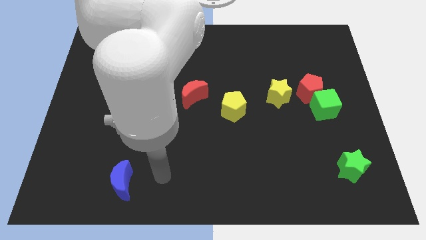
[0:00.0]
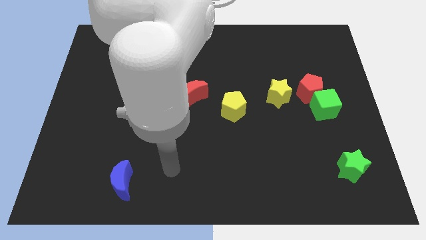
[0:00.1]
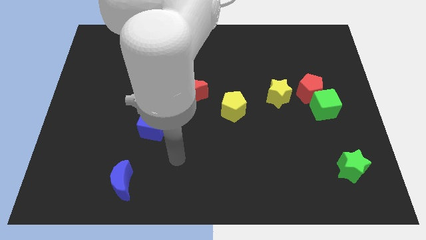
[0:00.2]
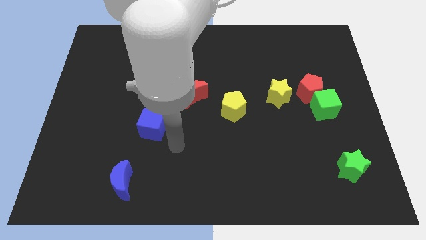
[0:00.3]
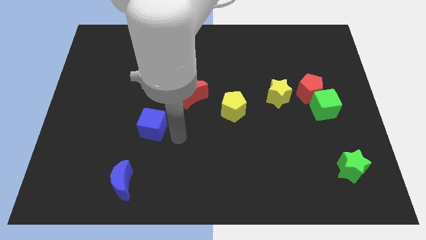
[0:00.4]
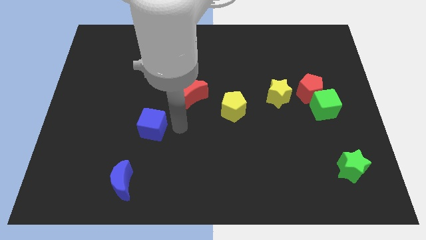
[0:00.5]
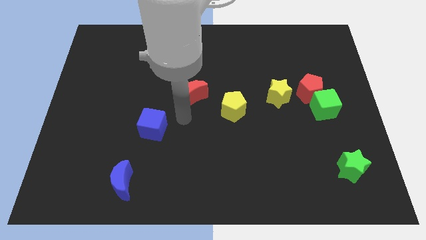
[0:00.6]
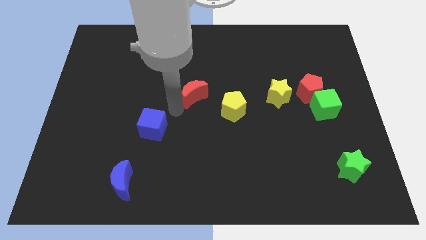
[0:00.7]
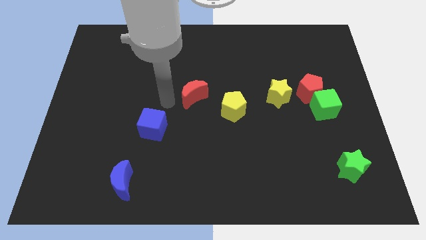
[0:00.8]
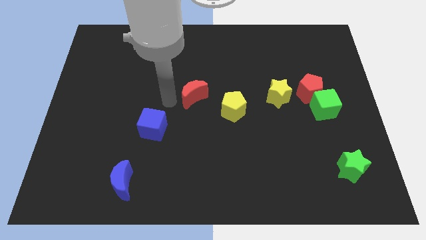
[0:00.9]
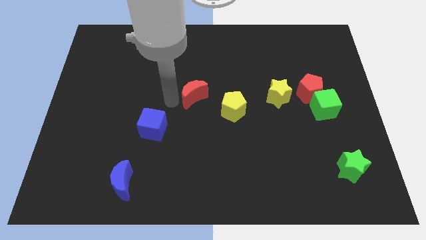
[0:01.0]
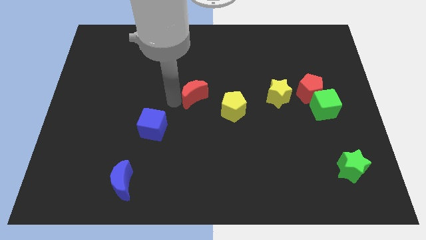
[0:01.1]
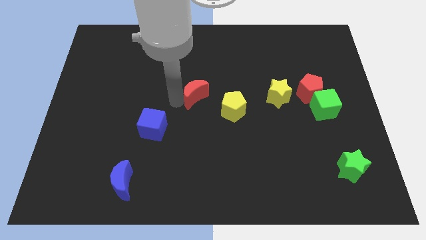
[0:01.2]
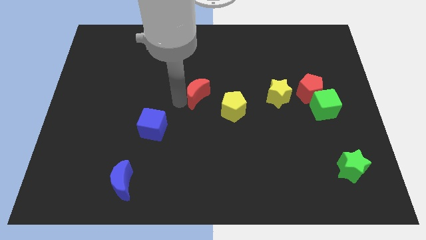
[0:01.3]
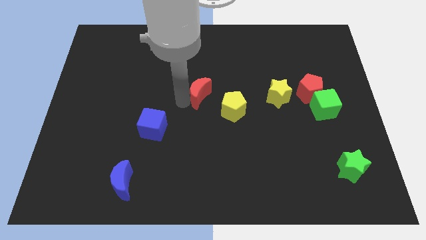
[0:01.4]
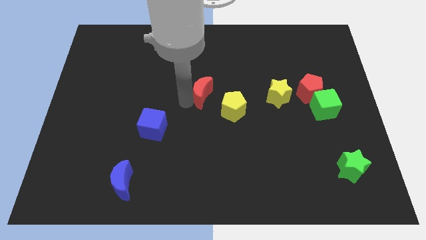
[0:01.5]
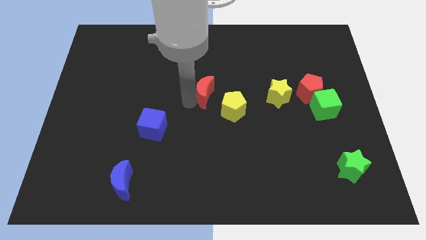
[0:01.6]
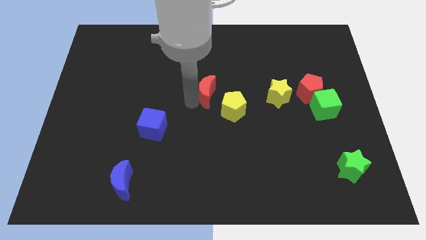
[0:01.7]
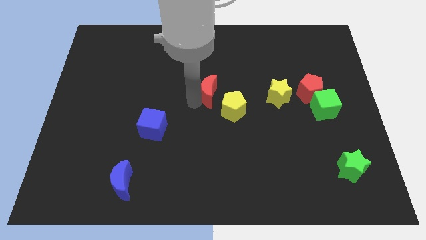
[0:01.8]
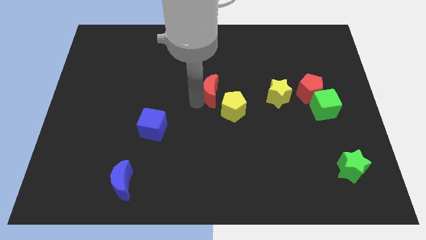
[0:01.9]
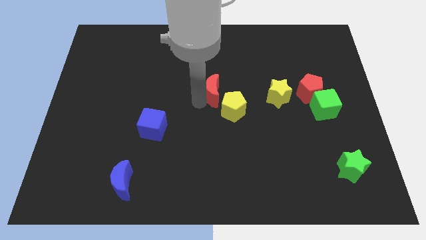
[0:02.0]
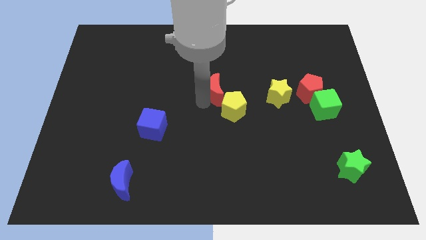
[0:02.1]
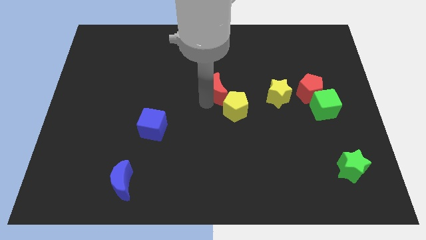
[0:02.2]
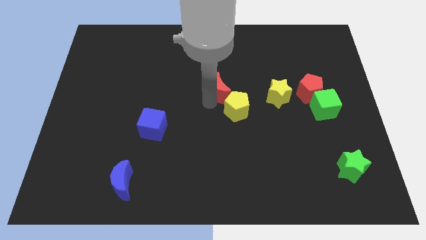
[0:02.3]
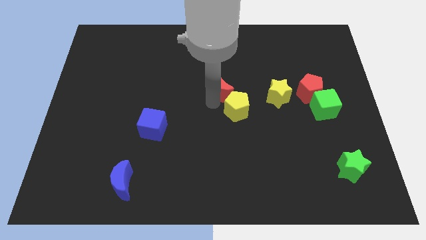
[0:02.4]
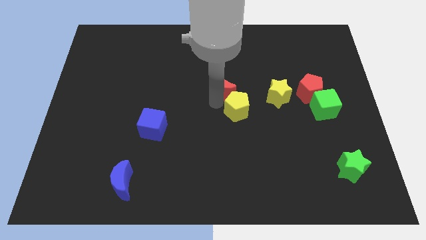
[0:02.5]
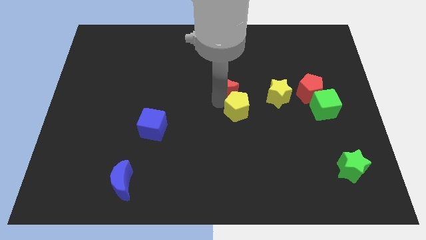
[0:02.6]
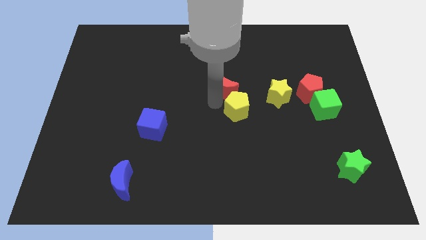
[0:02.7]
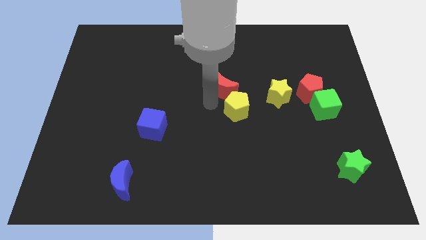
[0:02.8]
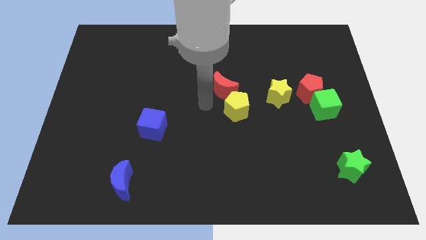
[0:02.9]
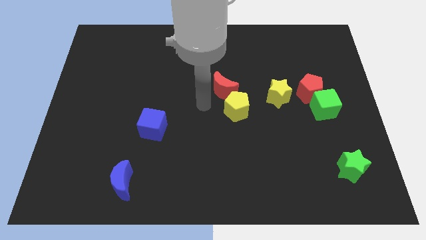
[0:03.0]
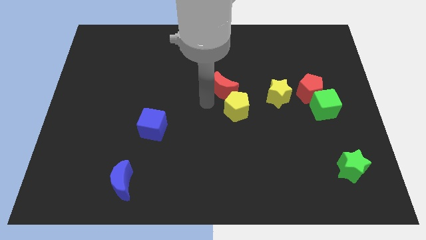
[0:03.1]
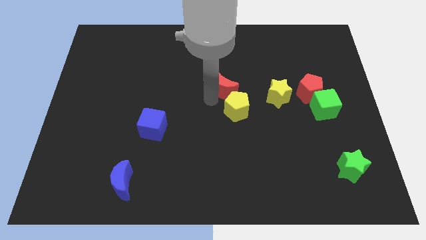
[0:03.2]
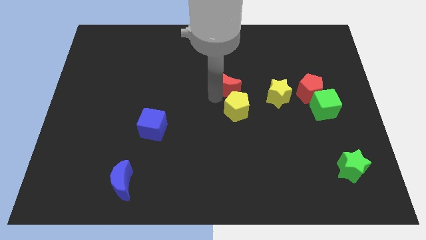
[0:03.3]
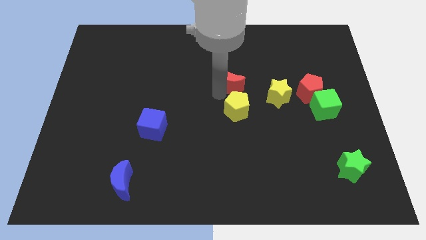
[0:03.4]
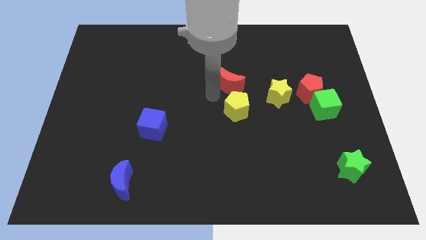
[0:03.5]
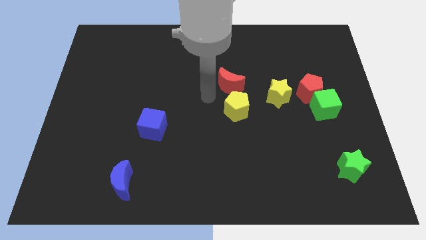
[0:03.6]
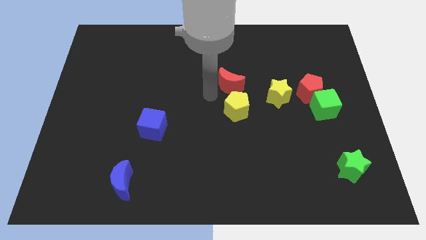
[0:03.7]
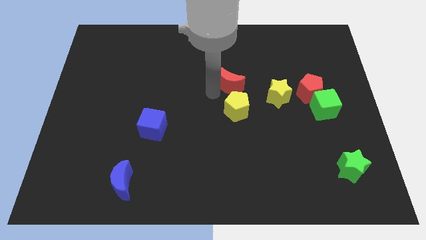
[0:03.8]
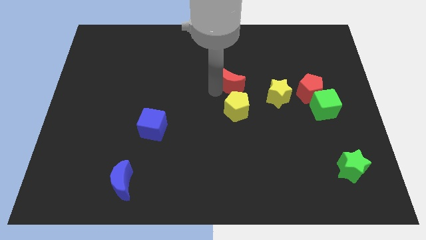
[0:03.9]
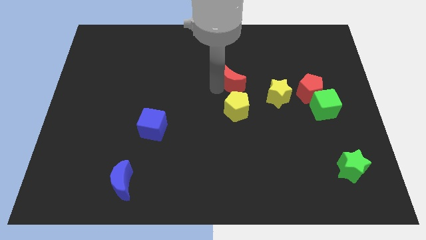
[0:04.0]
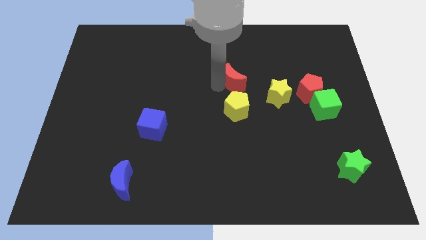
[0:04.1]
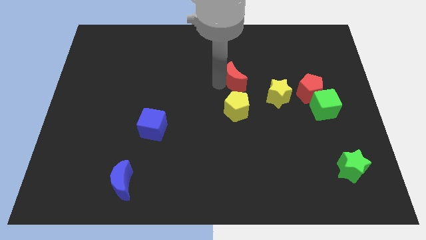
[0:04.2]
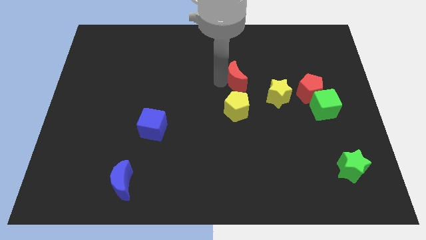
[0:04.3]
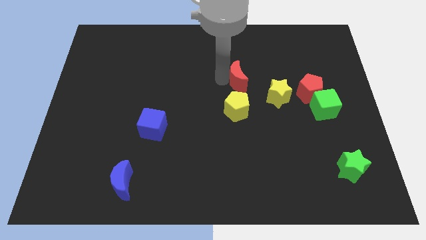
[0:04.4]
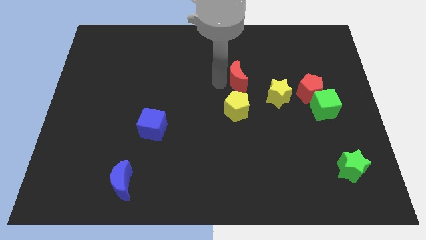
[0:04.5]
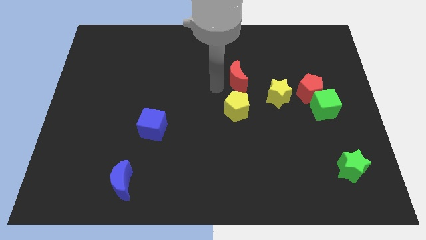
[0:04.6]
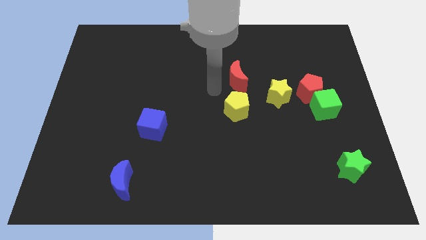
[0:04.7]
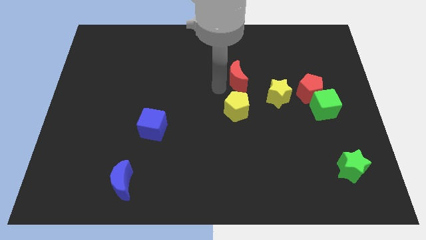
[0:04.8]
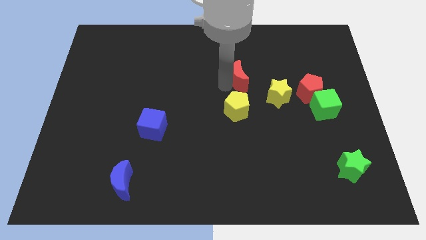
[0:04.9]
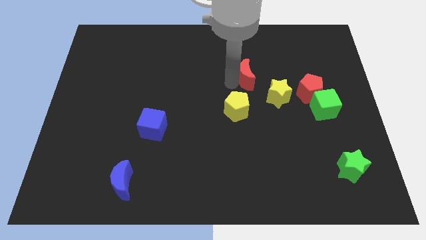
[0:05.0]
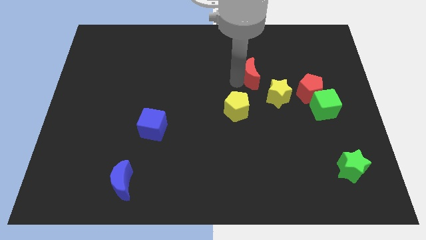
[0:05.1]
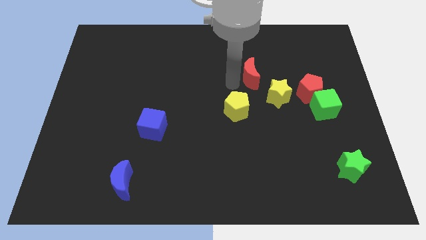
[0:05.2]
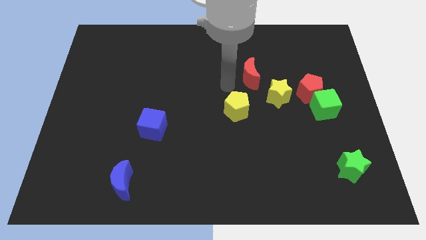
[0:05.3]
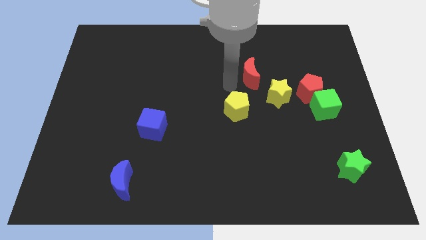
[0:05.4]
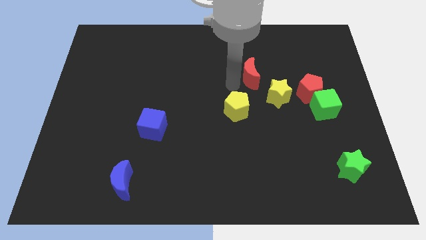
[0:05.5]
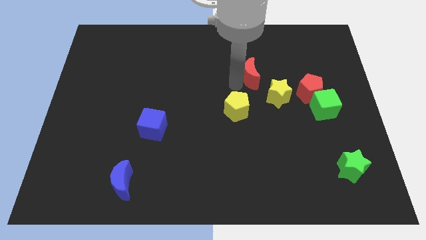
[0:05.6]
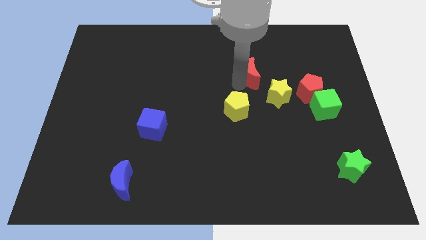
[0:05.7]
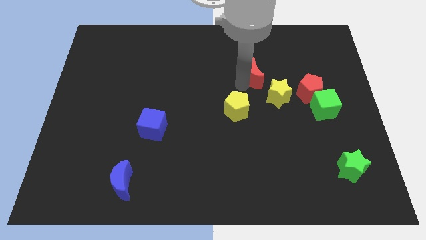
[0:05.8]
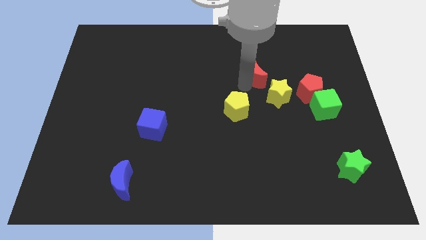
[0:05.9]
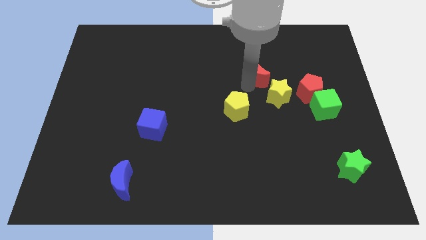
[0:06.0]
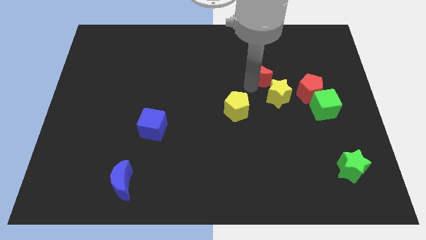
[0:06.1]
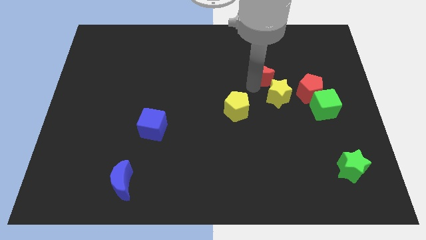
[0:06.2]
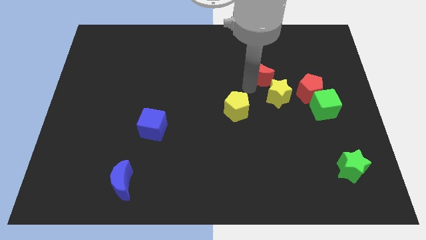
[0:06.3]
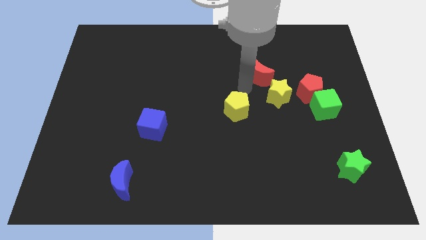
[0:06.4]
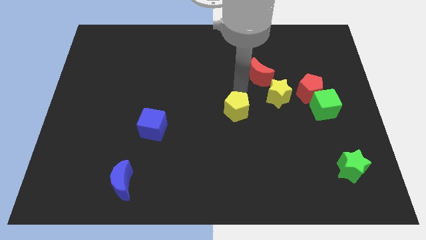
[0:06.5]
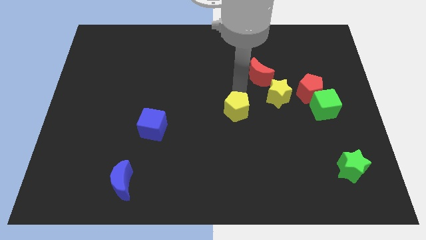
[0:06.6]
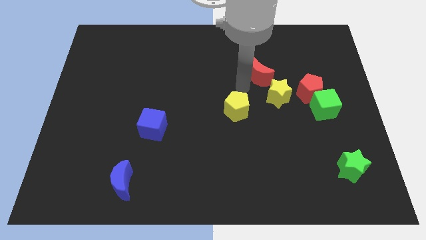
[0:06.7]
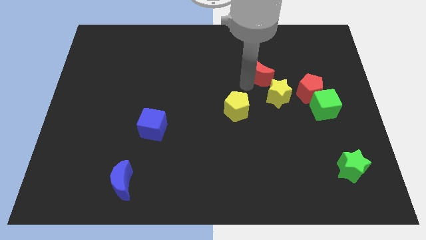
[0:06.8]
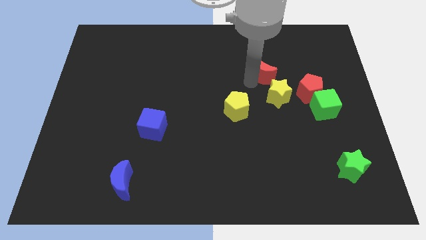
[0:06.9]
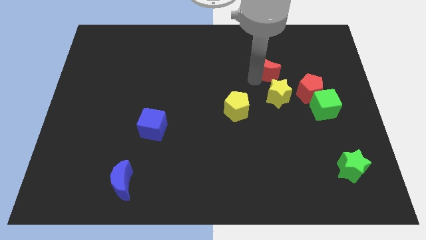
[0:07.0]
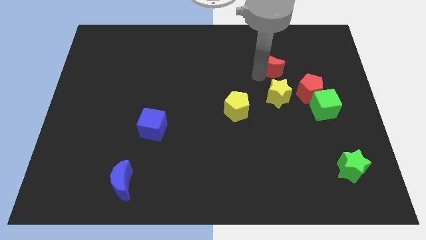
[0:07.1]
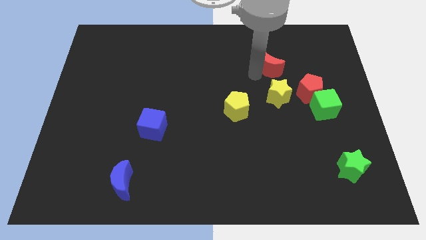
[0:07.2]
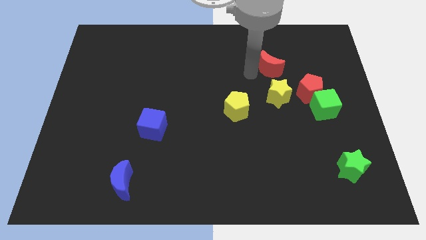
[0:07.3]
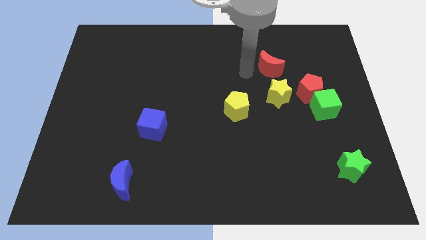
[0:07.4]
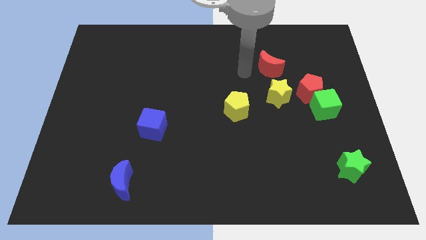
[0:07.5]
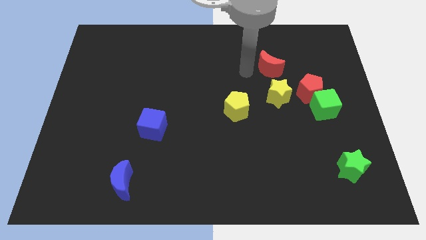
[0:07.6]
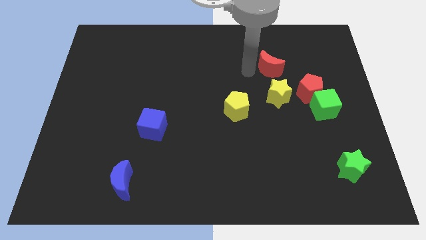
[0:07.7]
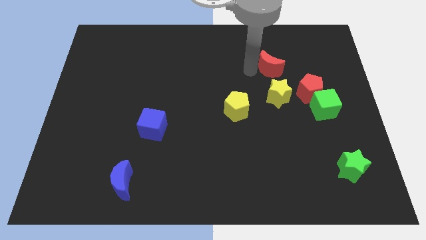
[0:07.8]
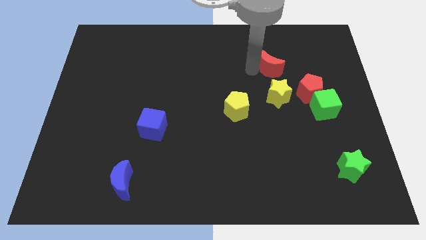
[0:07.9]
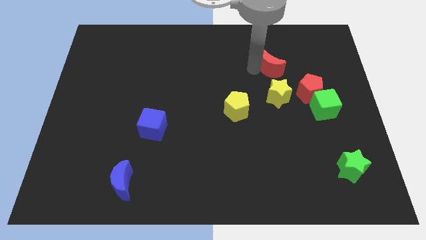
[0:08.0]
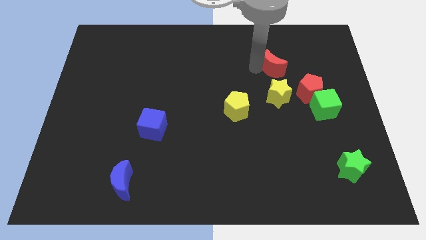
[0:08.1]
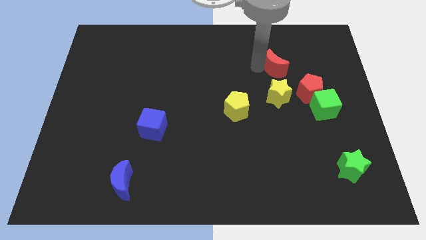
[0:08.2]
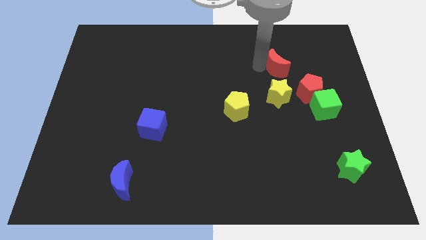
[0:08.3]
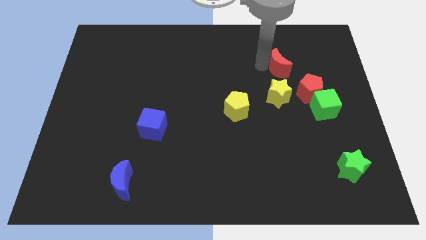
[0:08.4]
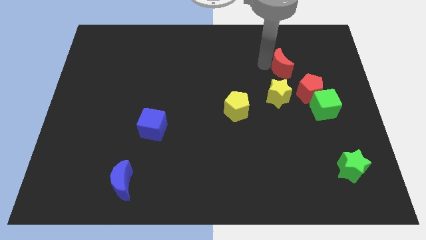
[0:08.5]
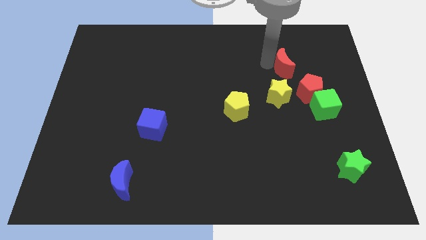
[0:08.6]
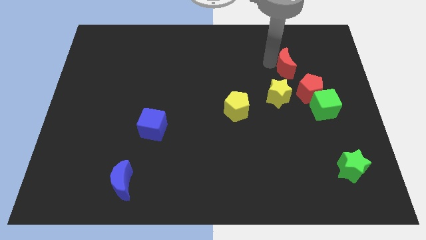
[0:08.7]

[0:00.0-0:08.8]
push the red moon to the top of the red pentagon
